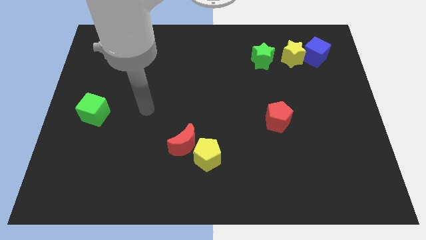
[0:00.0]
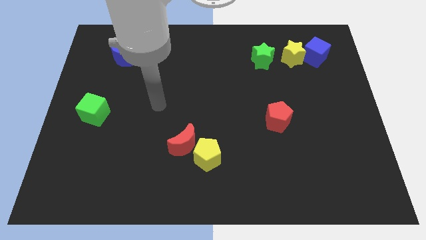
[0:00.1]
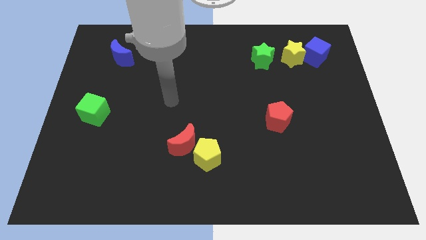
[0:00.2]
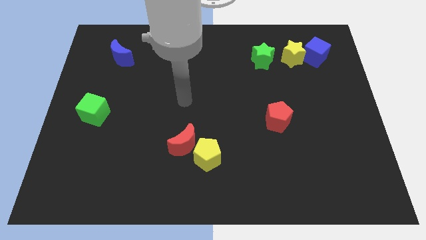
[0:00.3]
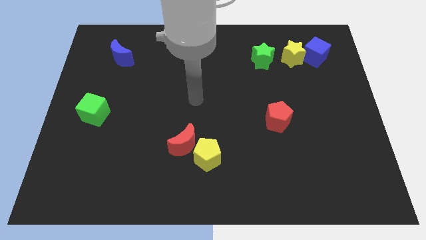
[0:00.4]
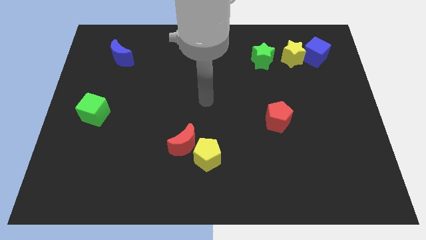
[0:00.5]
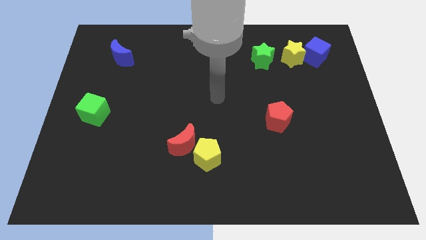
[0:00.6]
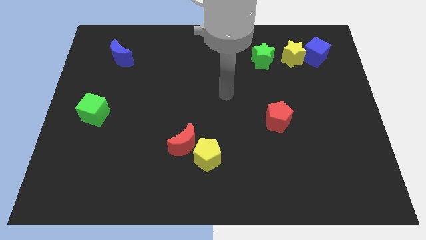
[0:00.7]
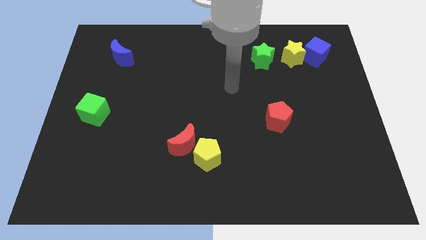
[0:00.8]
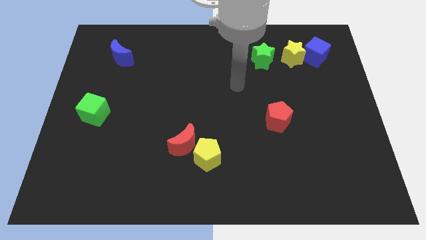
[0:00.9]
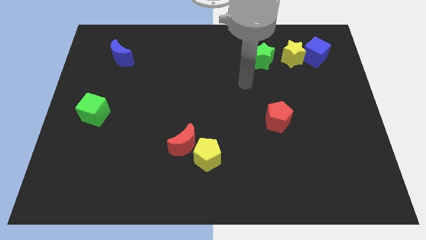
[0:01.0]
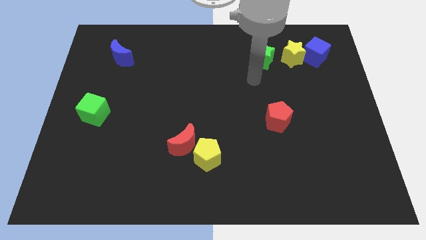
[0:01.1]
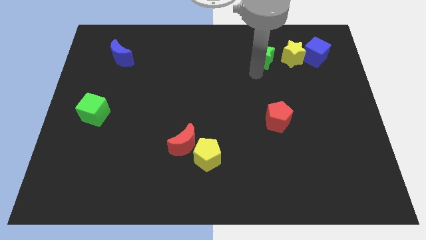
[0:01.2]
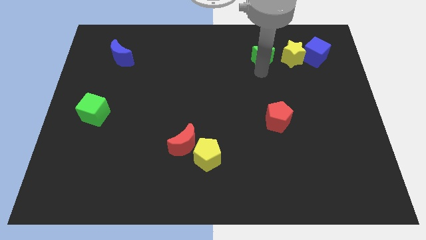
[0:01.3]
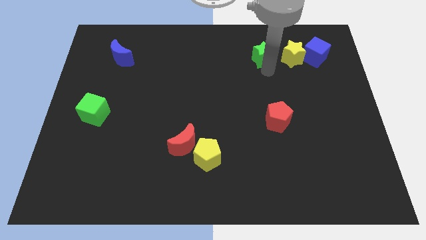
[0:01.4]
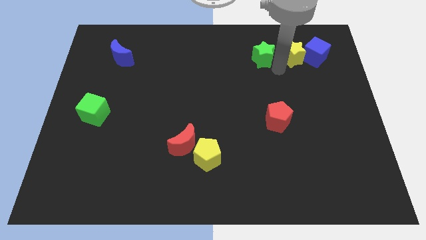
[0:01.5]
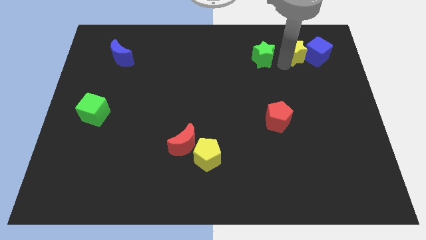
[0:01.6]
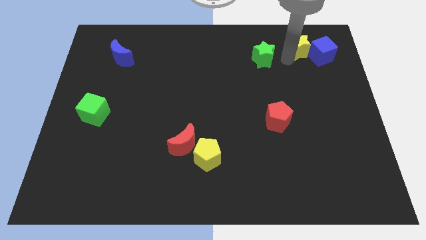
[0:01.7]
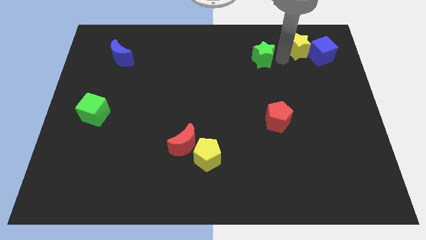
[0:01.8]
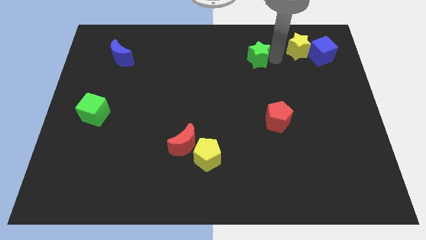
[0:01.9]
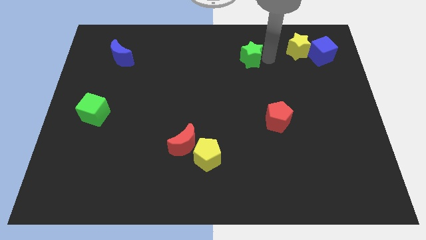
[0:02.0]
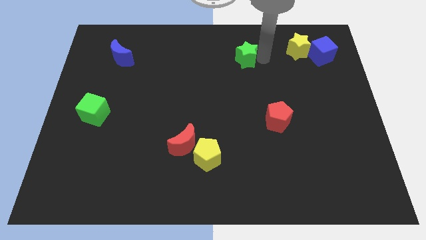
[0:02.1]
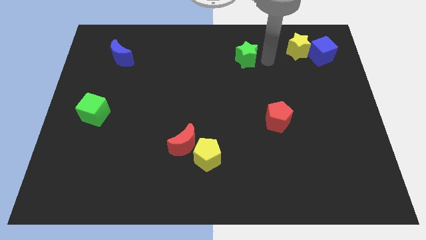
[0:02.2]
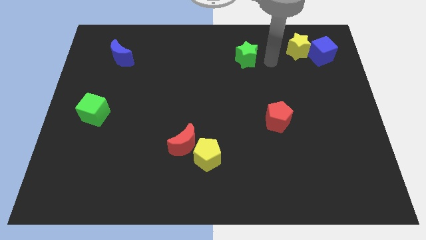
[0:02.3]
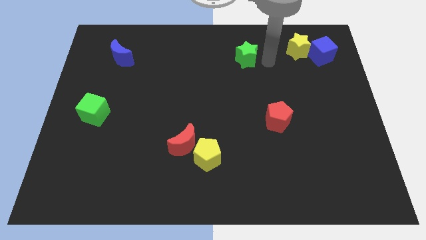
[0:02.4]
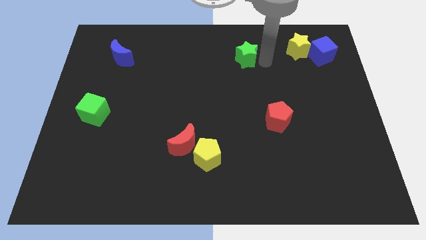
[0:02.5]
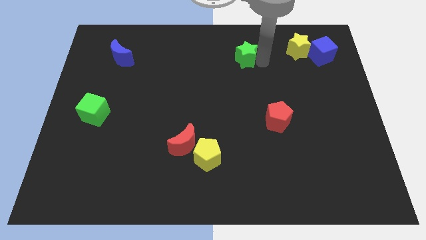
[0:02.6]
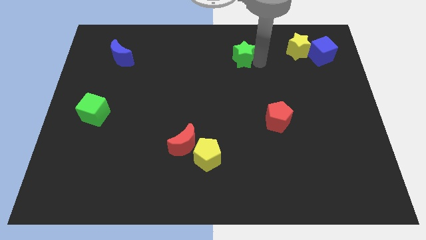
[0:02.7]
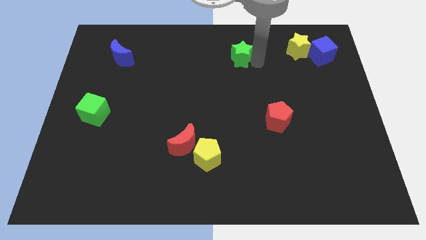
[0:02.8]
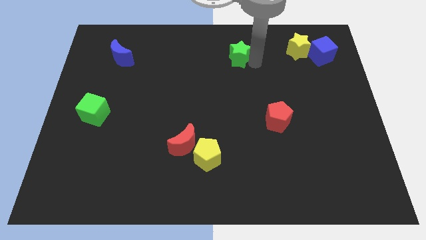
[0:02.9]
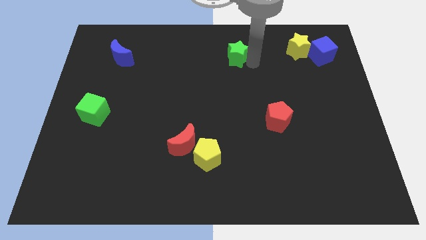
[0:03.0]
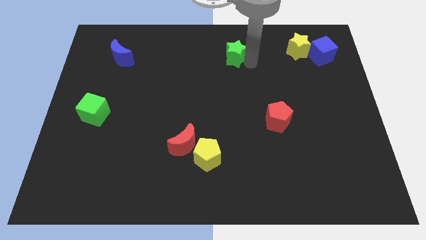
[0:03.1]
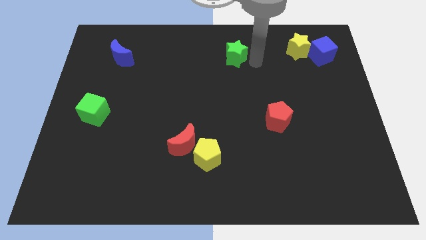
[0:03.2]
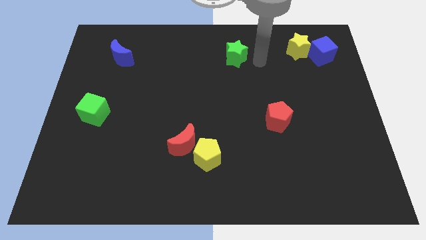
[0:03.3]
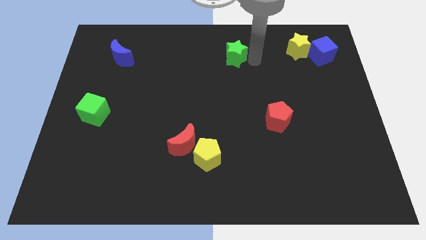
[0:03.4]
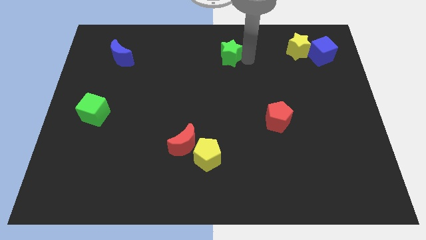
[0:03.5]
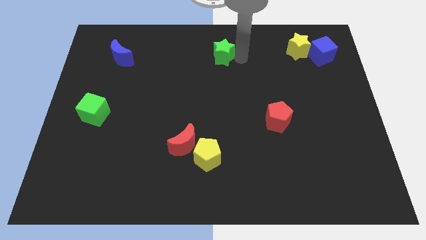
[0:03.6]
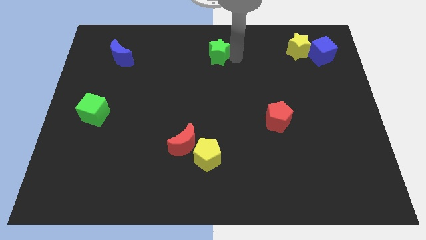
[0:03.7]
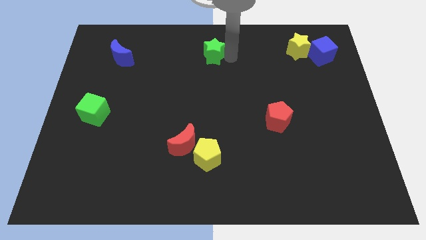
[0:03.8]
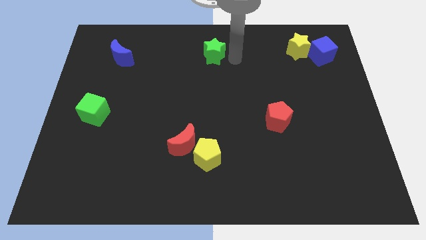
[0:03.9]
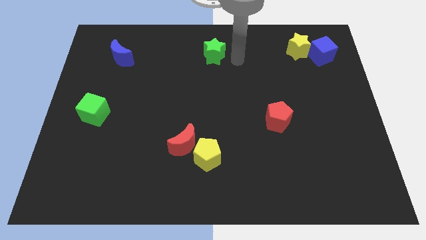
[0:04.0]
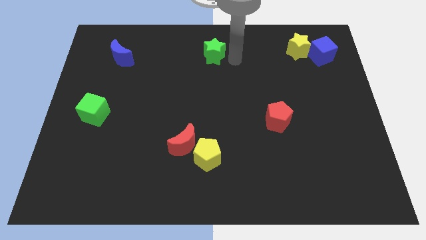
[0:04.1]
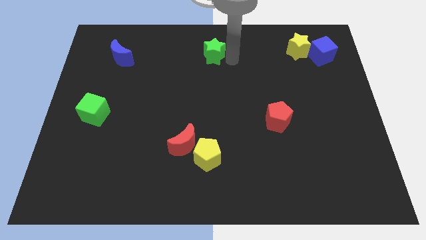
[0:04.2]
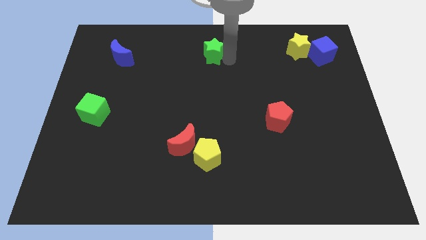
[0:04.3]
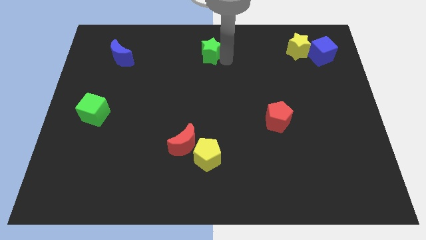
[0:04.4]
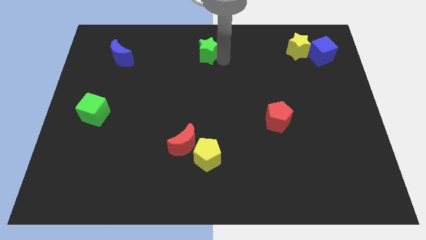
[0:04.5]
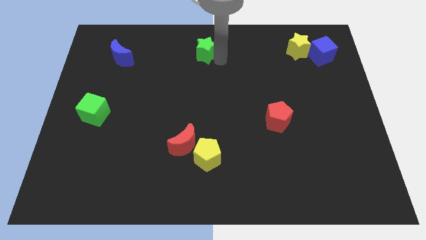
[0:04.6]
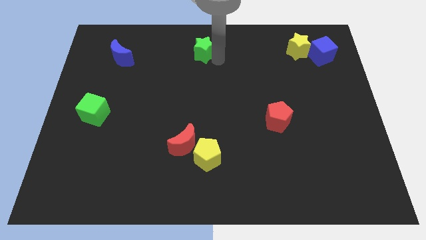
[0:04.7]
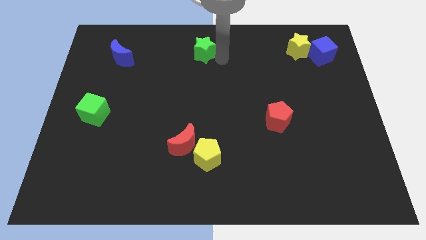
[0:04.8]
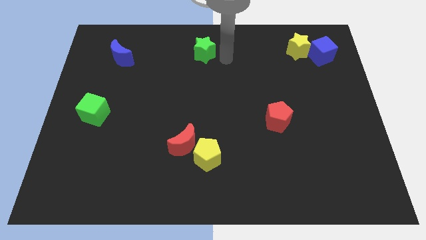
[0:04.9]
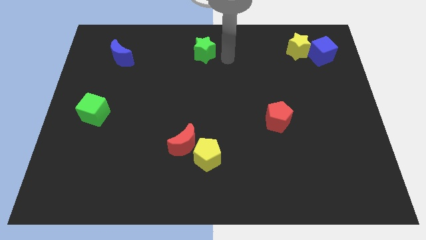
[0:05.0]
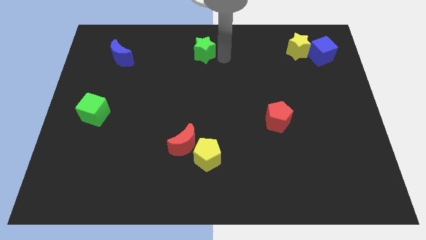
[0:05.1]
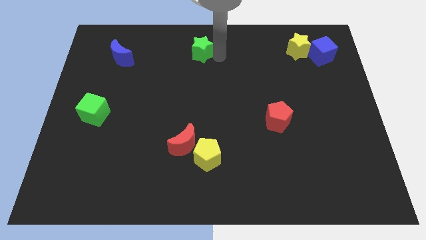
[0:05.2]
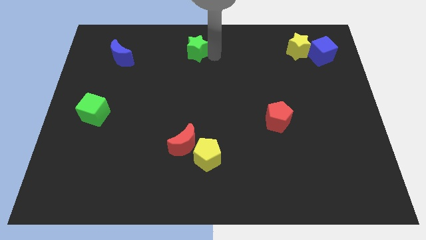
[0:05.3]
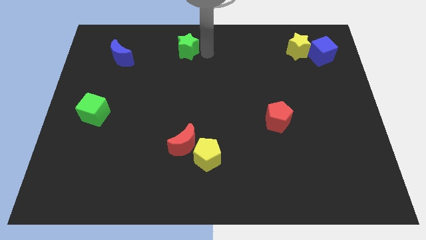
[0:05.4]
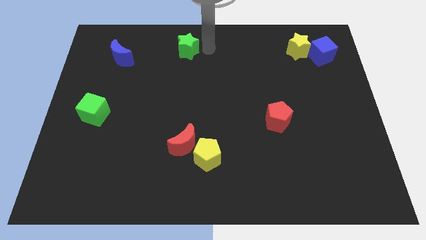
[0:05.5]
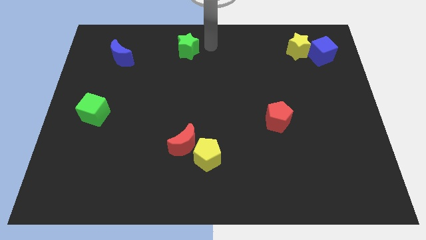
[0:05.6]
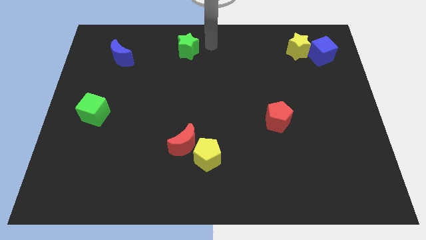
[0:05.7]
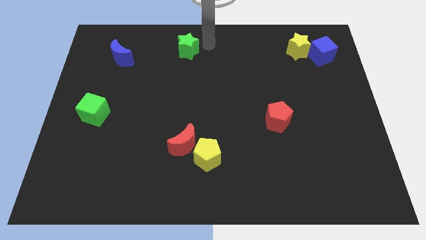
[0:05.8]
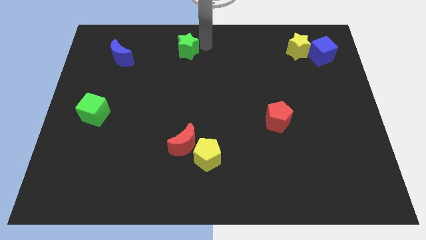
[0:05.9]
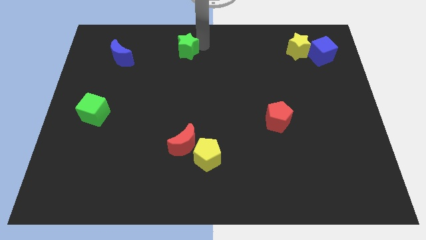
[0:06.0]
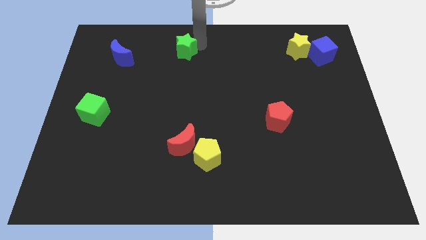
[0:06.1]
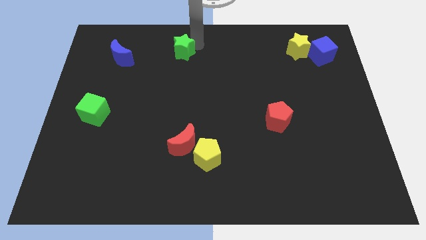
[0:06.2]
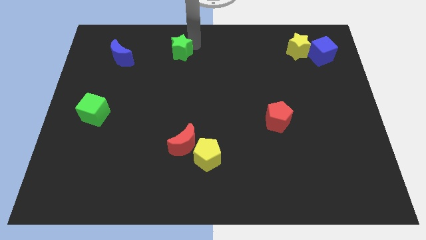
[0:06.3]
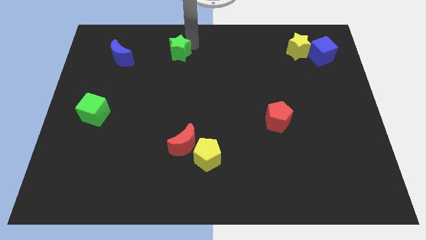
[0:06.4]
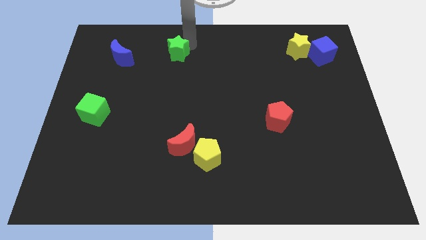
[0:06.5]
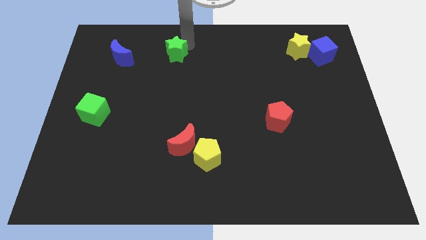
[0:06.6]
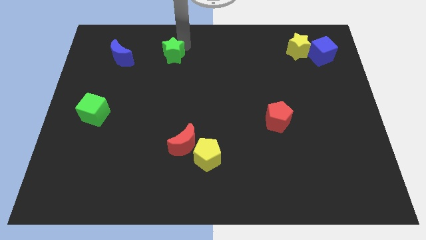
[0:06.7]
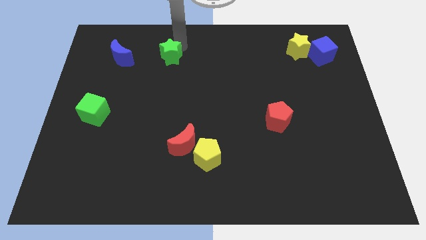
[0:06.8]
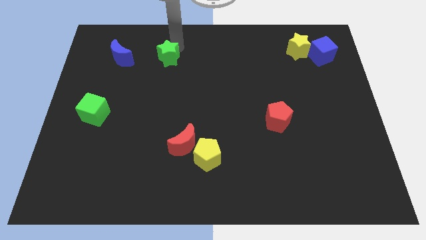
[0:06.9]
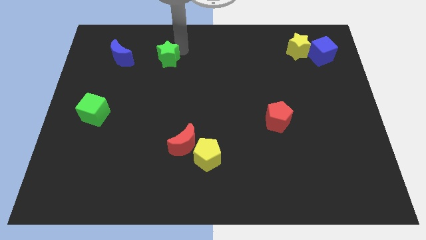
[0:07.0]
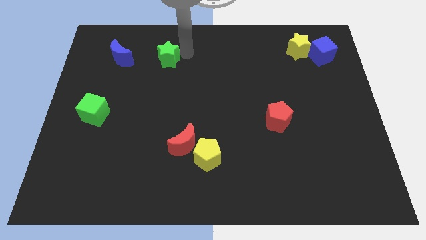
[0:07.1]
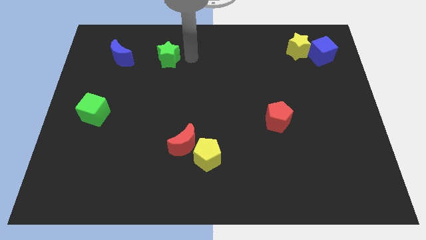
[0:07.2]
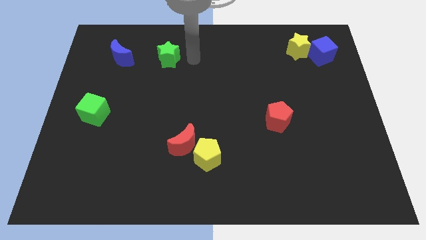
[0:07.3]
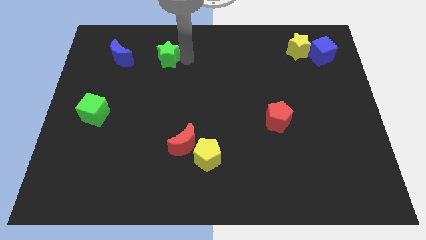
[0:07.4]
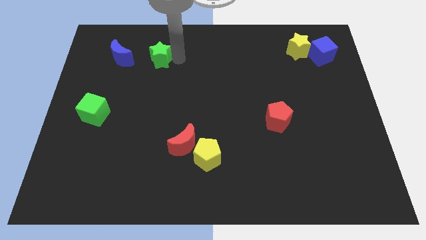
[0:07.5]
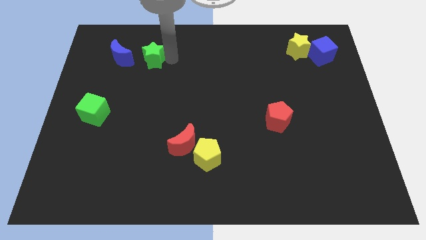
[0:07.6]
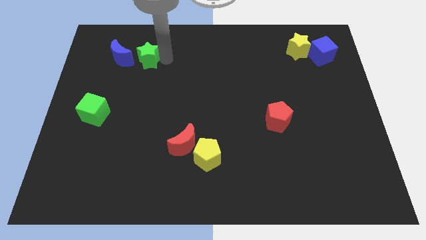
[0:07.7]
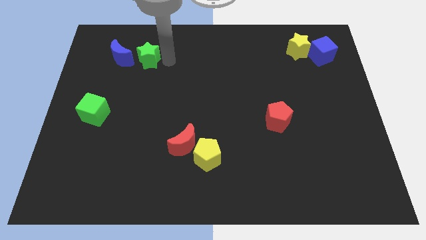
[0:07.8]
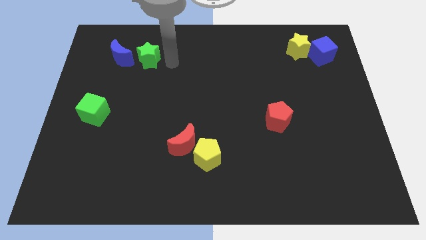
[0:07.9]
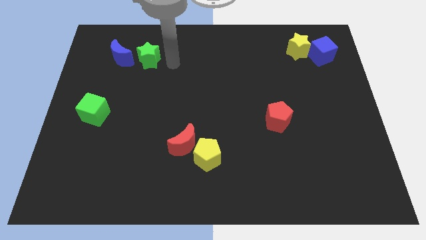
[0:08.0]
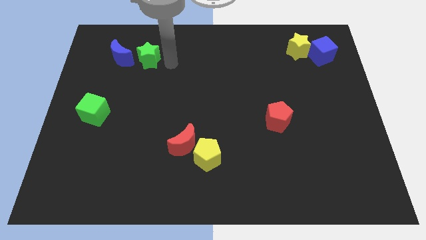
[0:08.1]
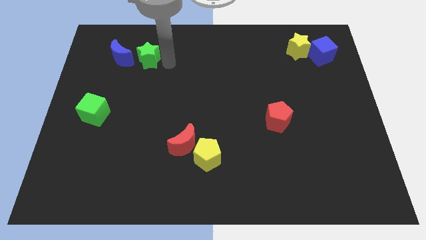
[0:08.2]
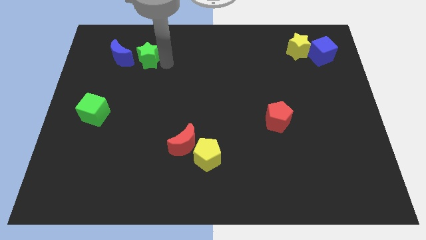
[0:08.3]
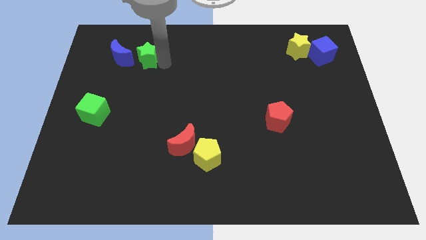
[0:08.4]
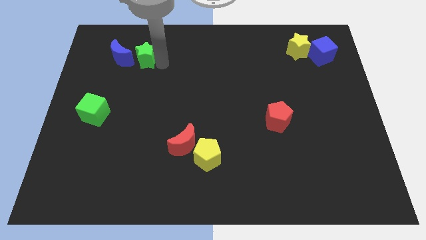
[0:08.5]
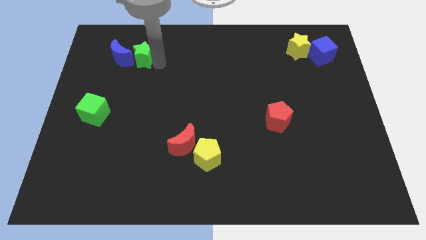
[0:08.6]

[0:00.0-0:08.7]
push the green star close to the blue moon
